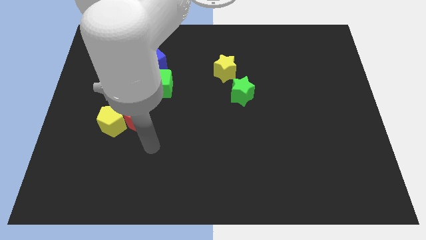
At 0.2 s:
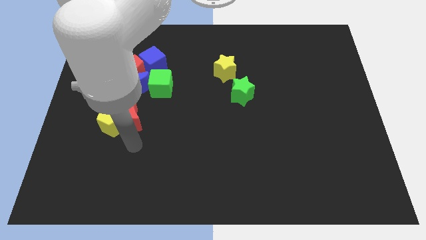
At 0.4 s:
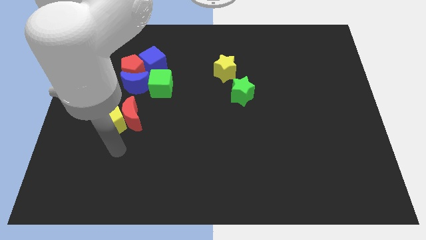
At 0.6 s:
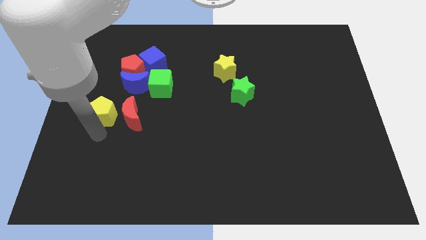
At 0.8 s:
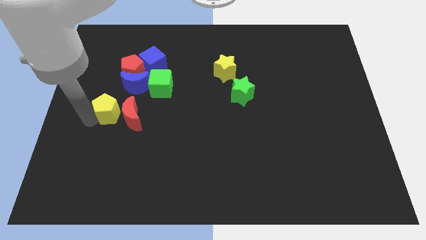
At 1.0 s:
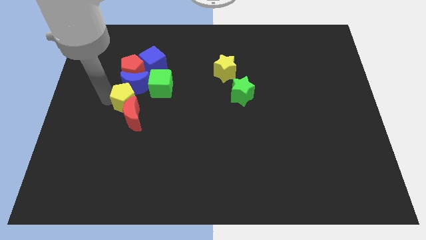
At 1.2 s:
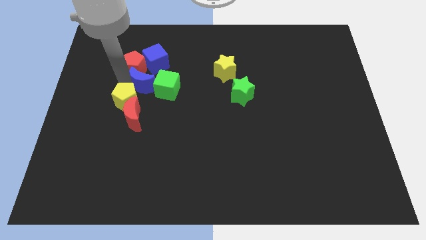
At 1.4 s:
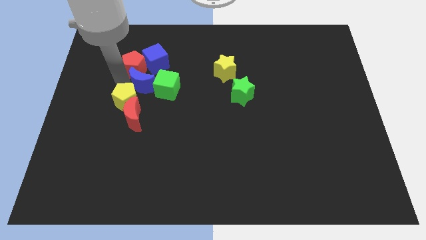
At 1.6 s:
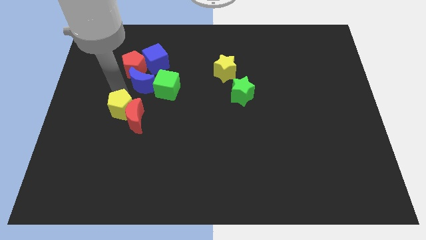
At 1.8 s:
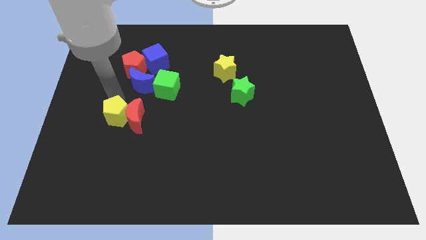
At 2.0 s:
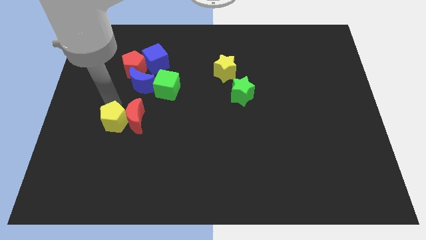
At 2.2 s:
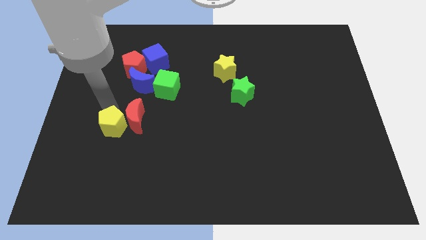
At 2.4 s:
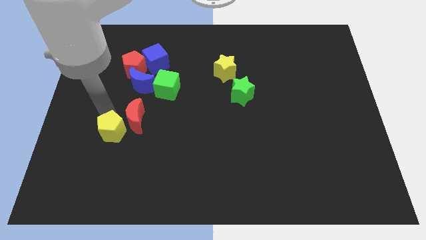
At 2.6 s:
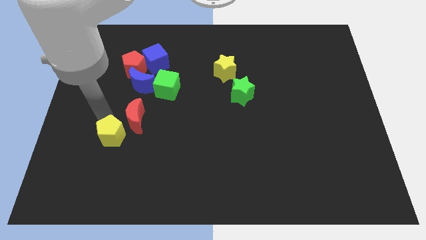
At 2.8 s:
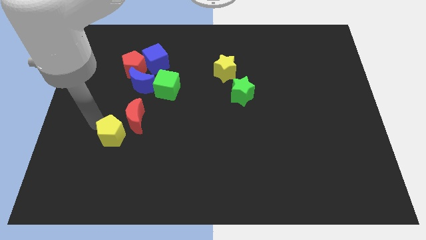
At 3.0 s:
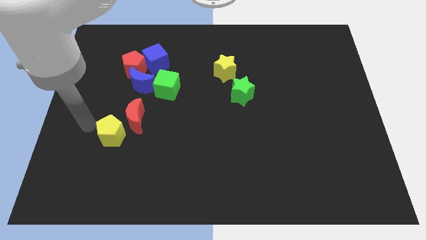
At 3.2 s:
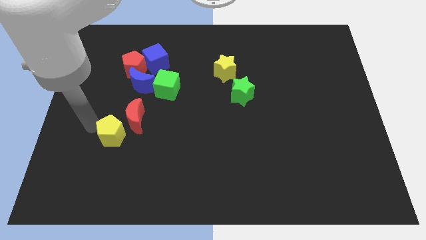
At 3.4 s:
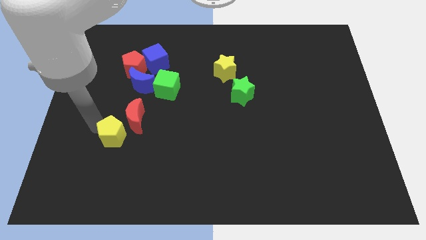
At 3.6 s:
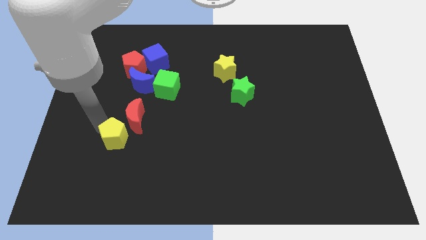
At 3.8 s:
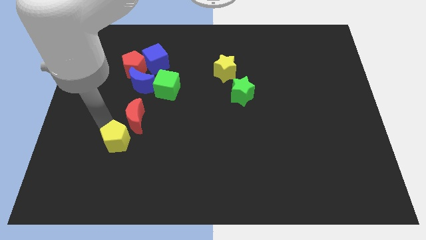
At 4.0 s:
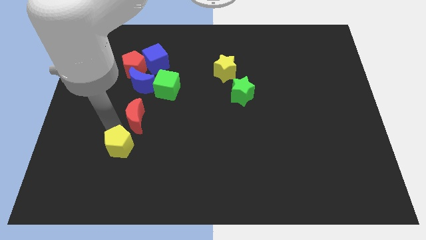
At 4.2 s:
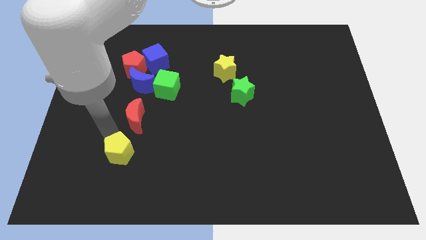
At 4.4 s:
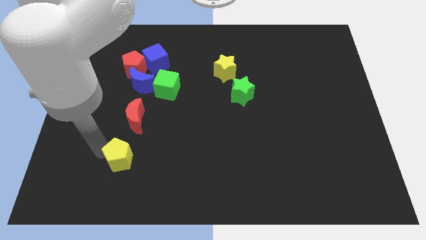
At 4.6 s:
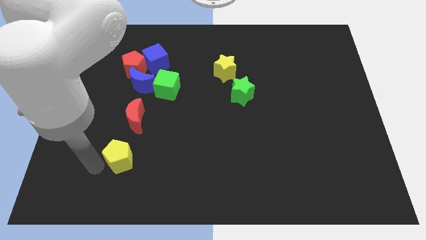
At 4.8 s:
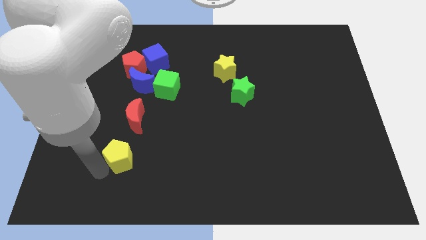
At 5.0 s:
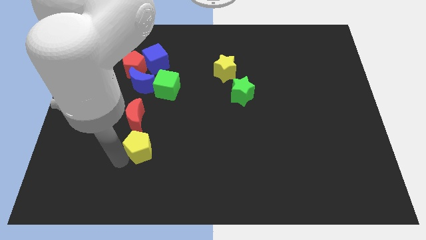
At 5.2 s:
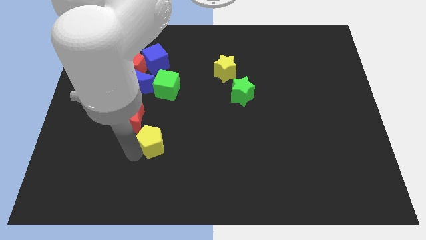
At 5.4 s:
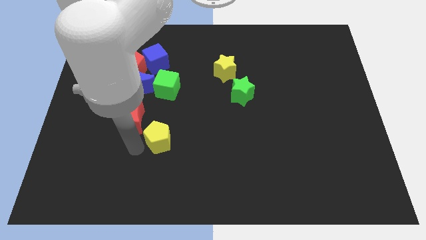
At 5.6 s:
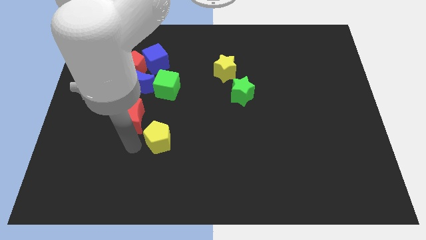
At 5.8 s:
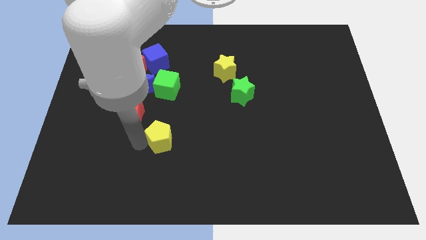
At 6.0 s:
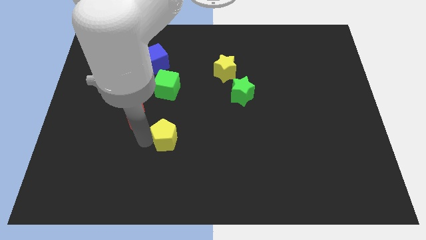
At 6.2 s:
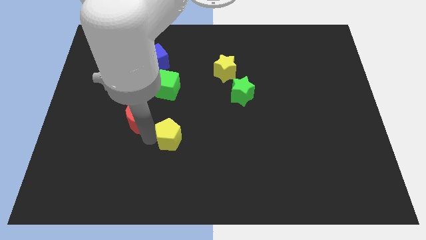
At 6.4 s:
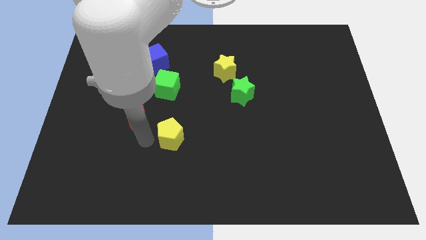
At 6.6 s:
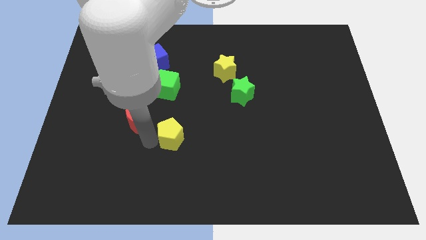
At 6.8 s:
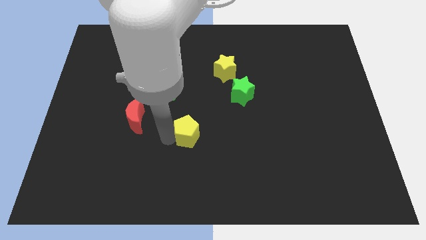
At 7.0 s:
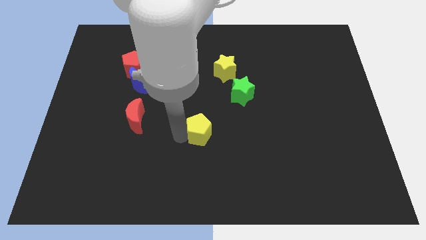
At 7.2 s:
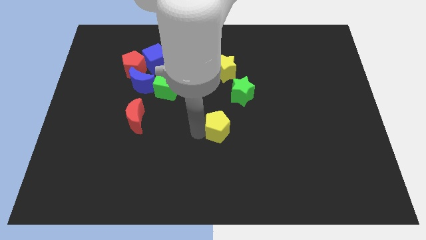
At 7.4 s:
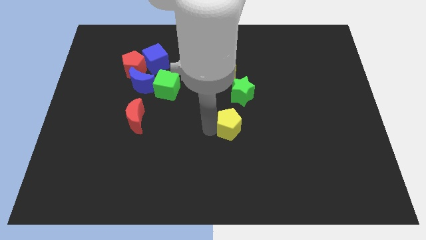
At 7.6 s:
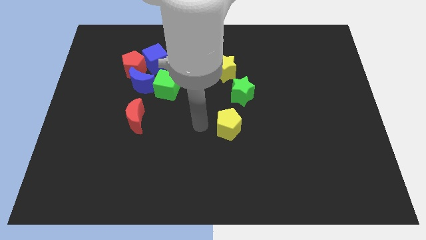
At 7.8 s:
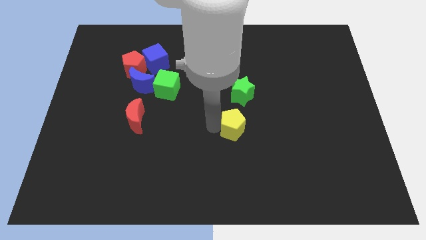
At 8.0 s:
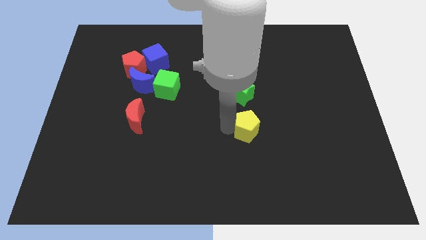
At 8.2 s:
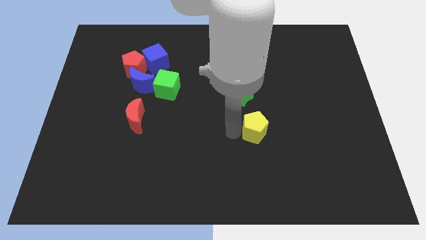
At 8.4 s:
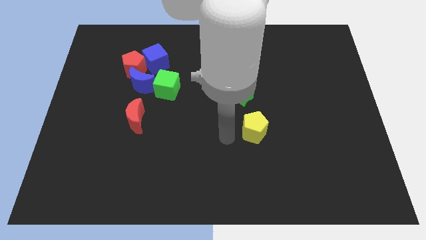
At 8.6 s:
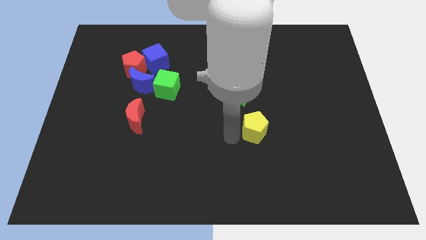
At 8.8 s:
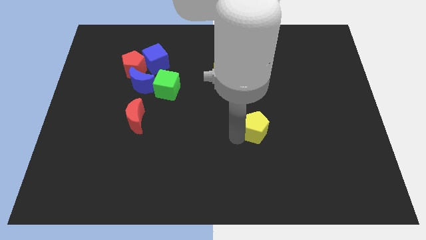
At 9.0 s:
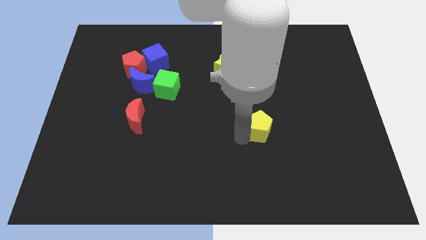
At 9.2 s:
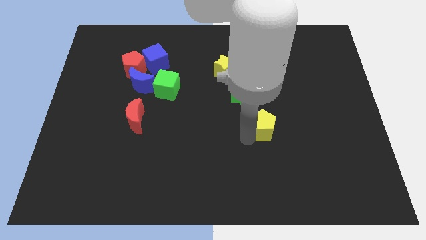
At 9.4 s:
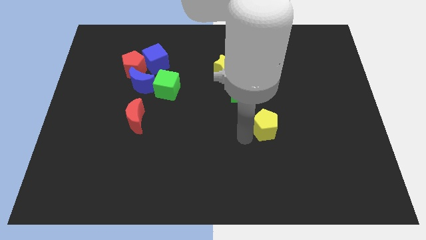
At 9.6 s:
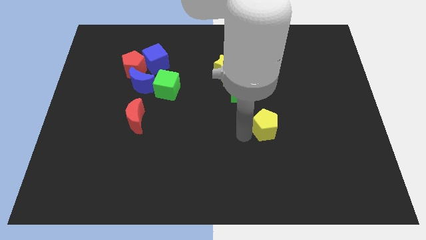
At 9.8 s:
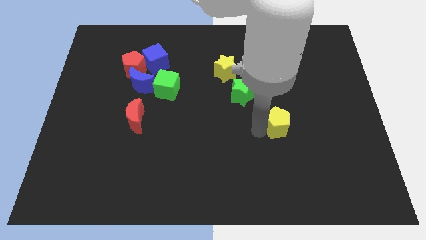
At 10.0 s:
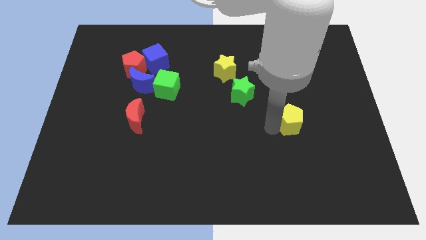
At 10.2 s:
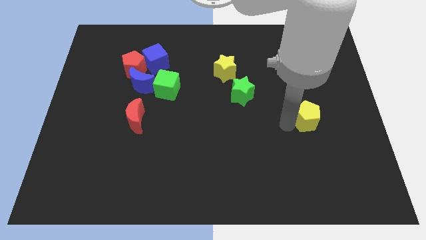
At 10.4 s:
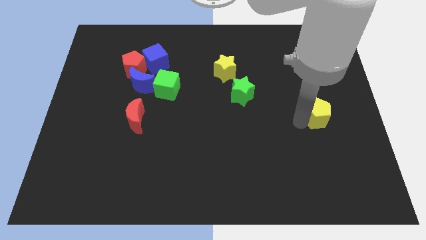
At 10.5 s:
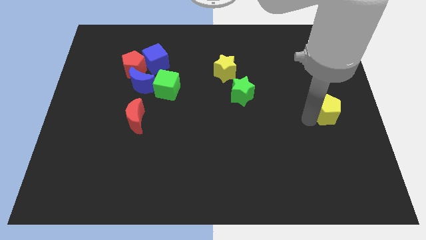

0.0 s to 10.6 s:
move the yellow pentagon to the center right

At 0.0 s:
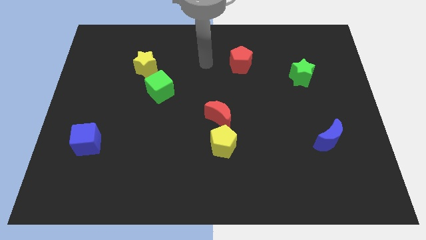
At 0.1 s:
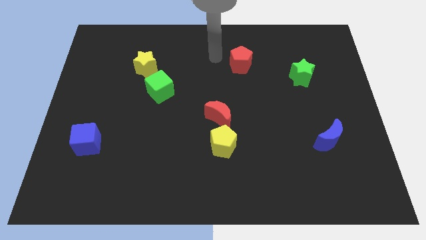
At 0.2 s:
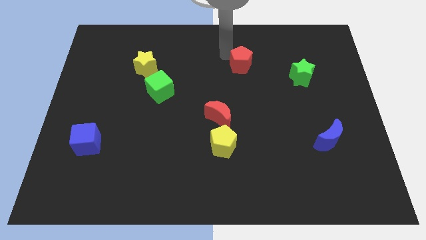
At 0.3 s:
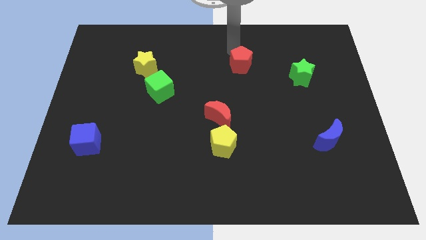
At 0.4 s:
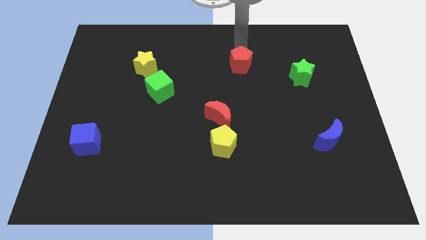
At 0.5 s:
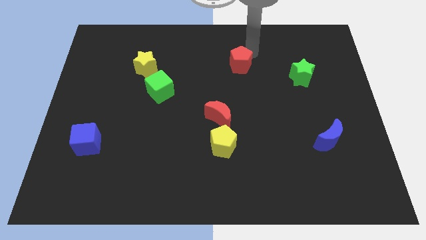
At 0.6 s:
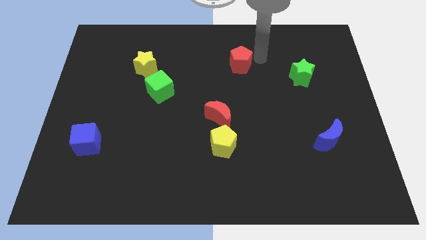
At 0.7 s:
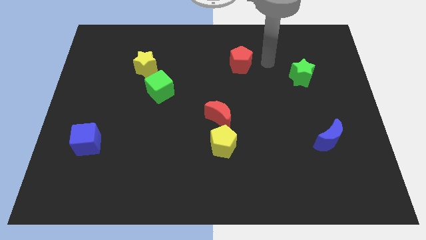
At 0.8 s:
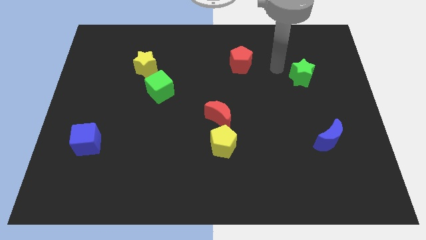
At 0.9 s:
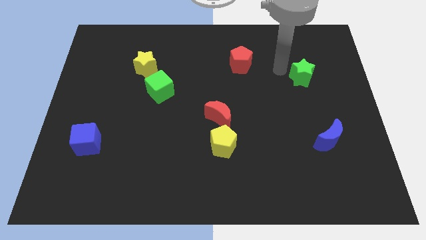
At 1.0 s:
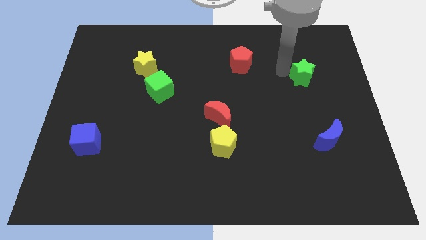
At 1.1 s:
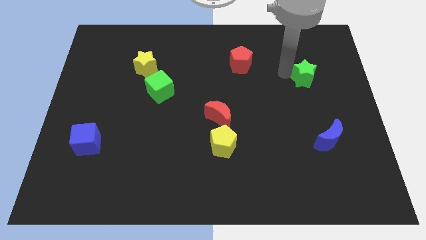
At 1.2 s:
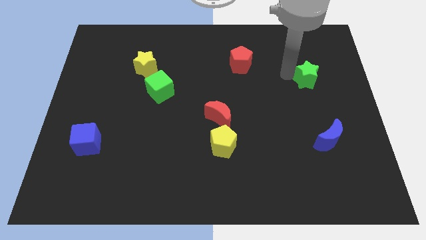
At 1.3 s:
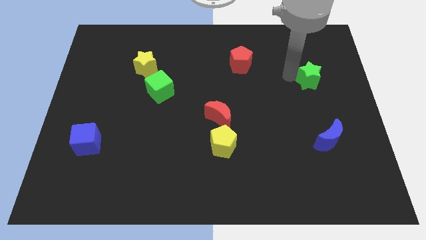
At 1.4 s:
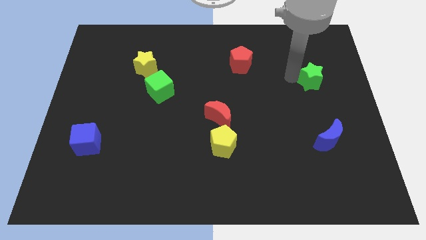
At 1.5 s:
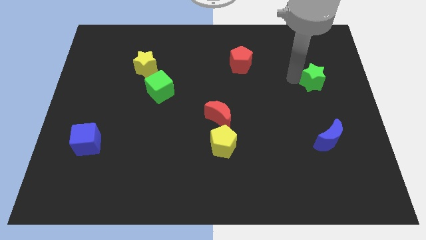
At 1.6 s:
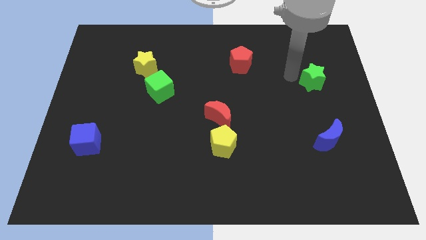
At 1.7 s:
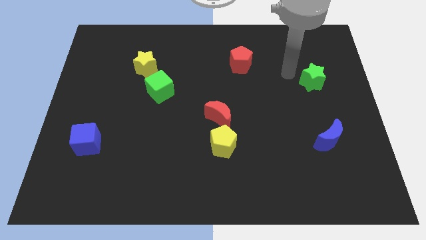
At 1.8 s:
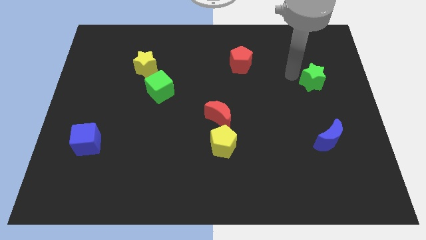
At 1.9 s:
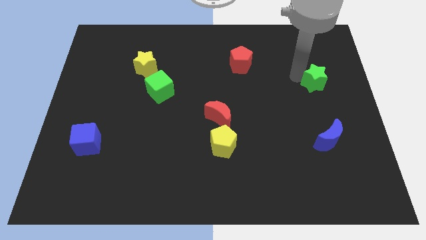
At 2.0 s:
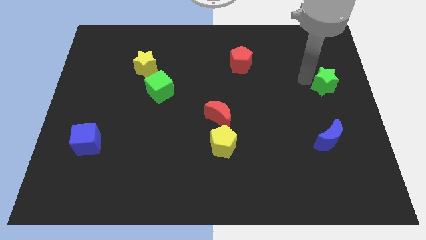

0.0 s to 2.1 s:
put the green star to the right side
